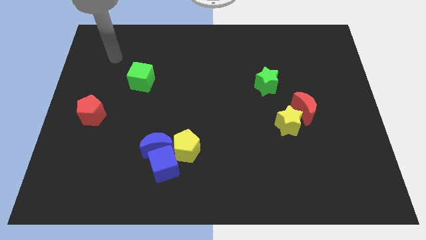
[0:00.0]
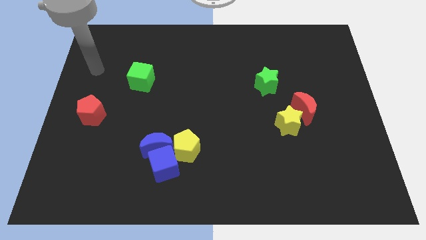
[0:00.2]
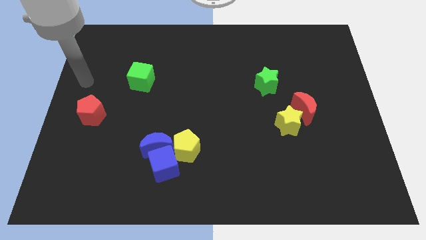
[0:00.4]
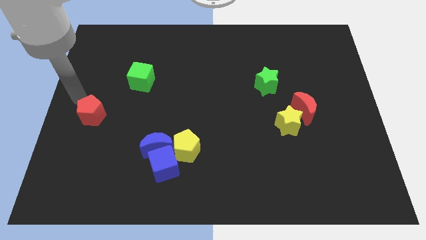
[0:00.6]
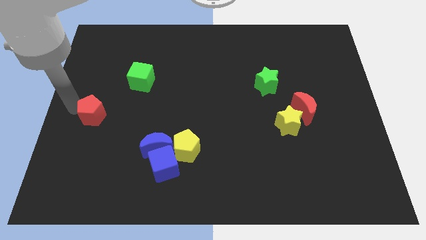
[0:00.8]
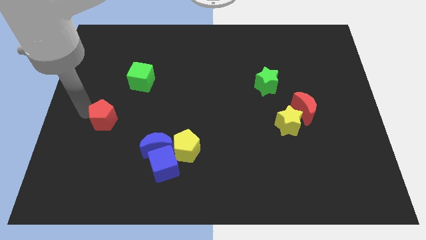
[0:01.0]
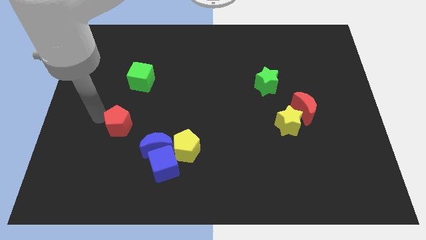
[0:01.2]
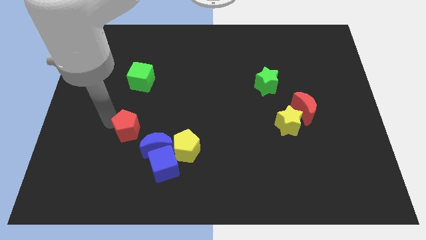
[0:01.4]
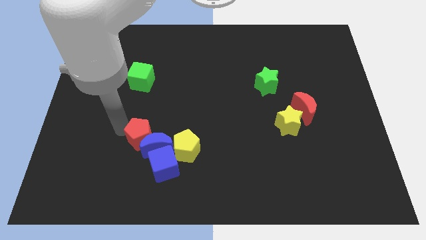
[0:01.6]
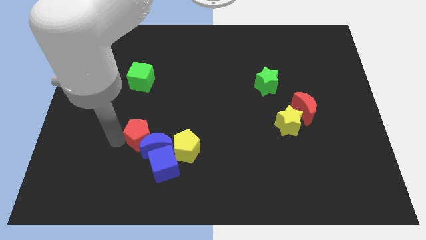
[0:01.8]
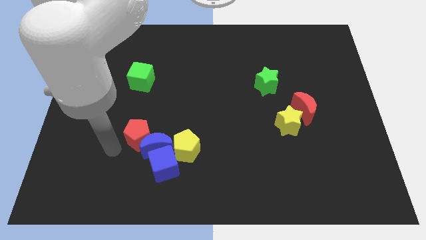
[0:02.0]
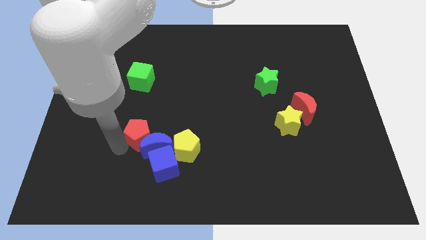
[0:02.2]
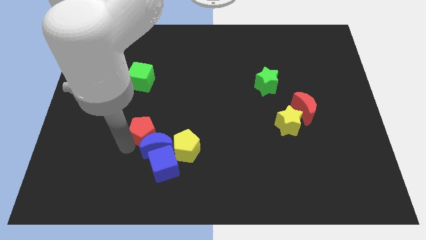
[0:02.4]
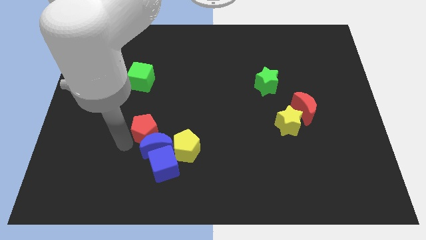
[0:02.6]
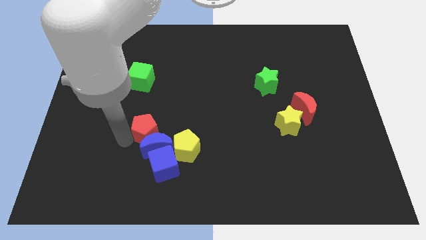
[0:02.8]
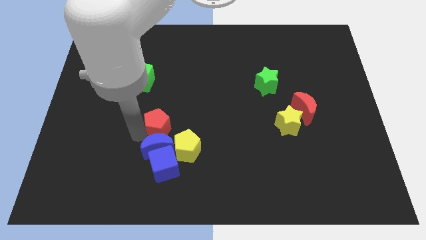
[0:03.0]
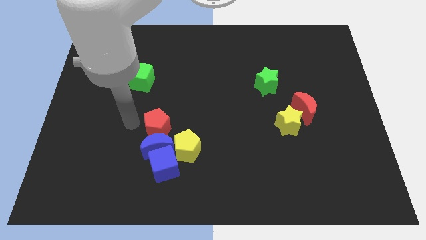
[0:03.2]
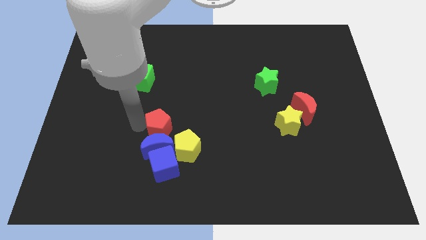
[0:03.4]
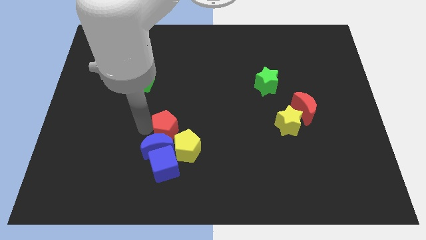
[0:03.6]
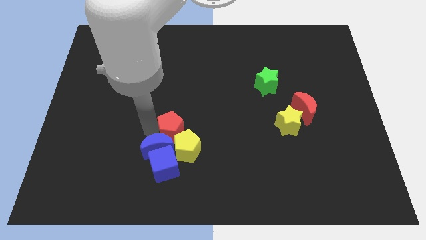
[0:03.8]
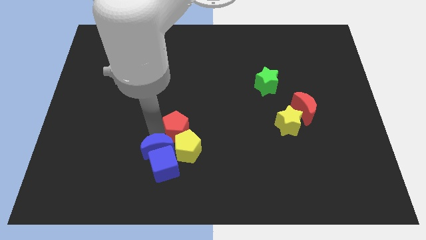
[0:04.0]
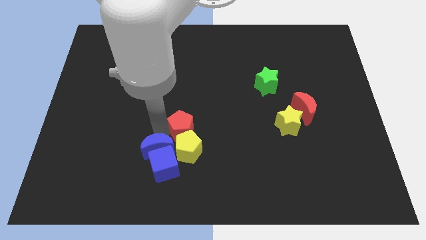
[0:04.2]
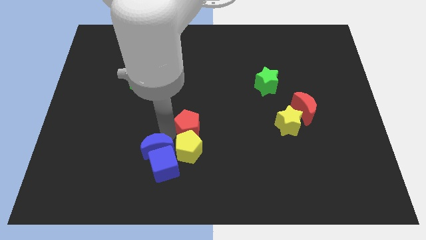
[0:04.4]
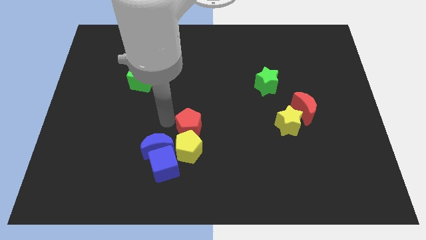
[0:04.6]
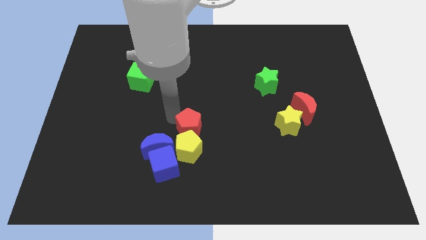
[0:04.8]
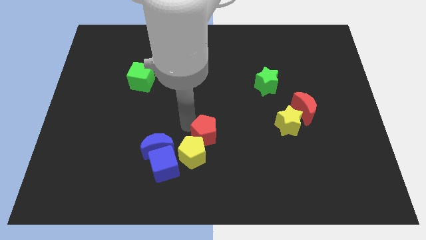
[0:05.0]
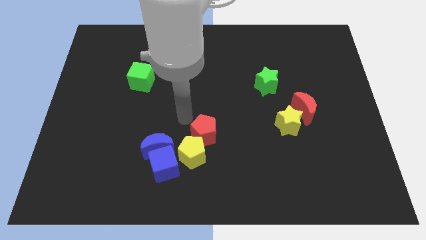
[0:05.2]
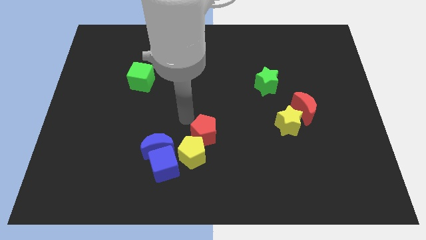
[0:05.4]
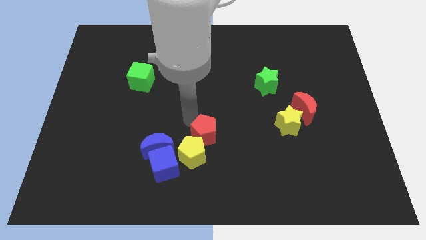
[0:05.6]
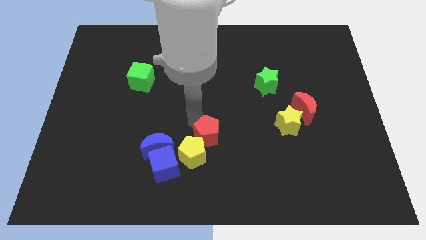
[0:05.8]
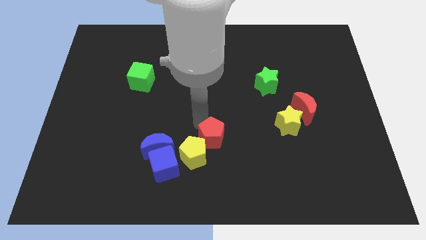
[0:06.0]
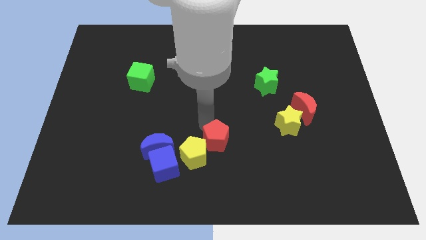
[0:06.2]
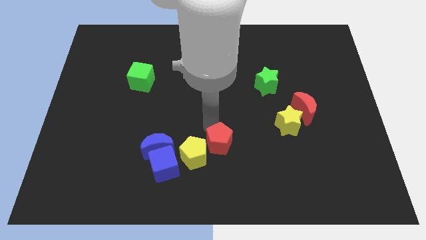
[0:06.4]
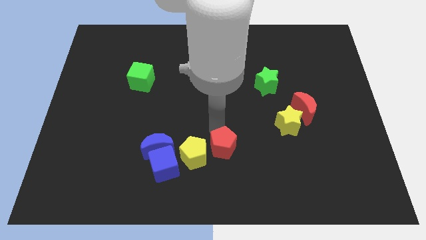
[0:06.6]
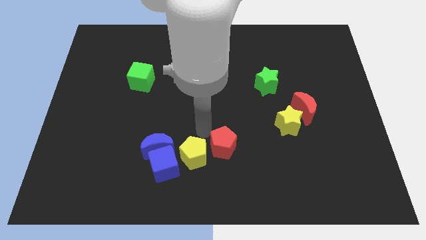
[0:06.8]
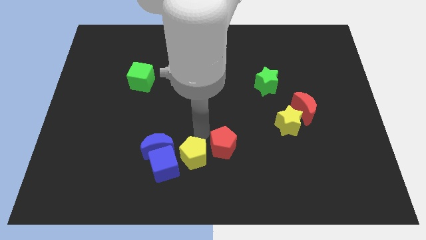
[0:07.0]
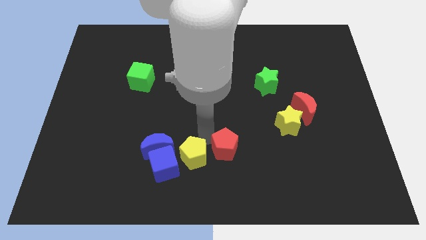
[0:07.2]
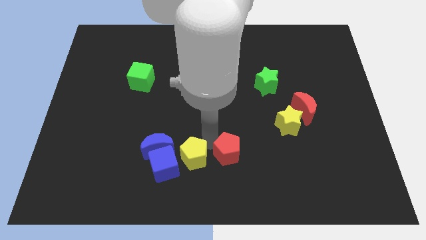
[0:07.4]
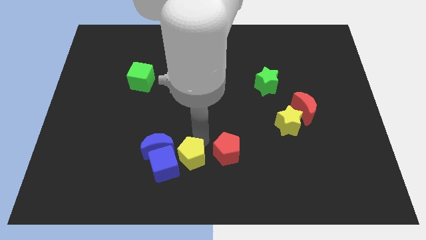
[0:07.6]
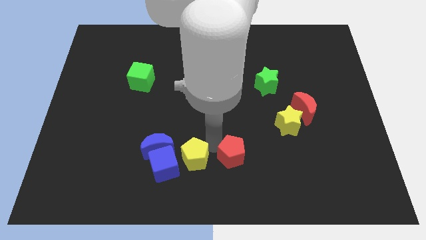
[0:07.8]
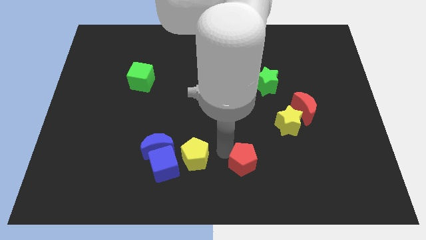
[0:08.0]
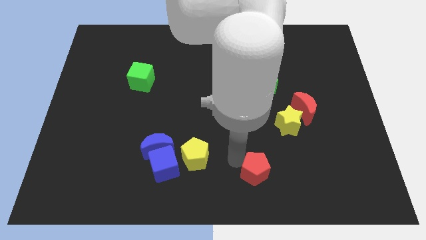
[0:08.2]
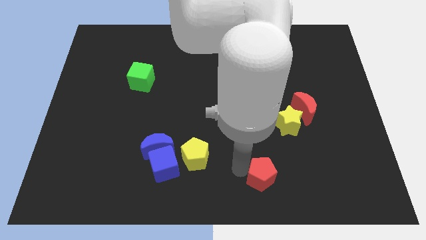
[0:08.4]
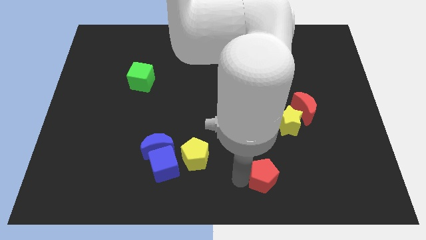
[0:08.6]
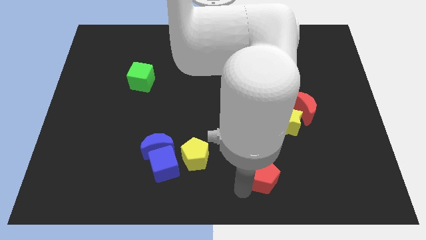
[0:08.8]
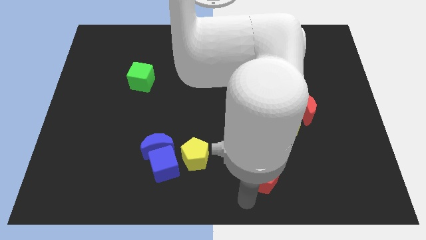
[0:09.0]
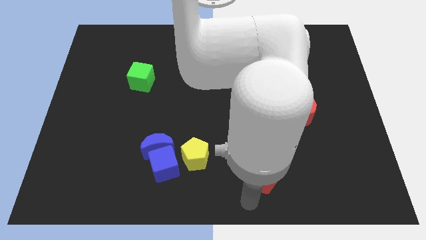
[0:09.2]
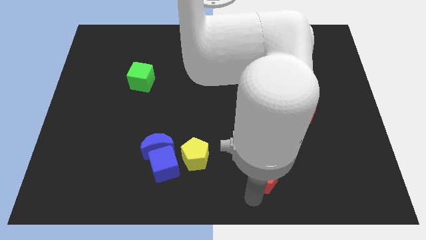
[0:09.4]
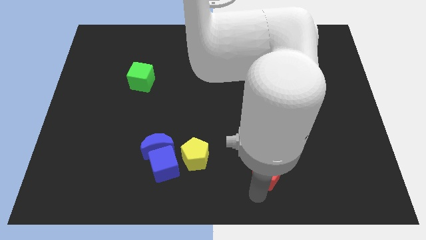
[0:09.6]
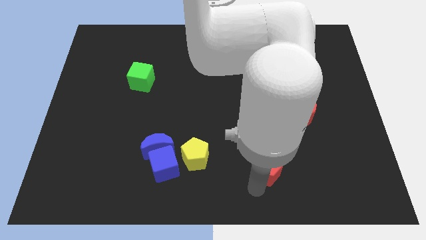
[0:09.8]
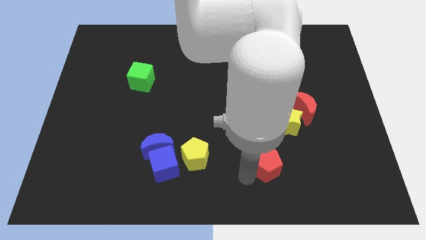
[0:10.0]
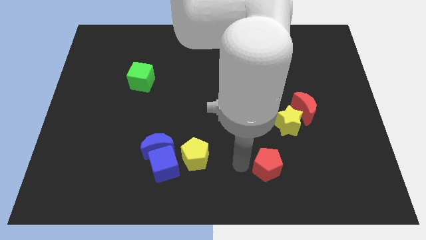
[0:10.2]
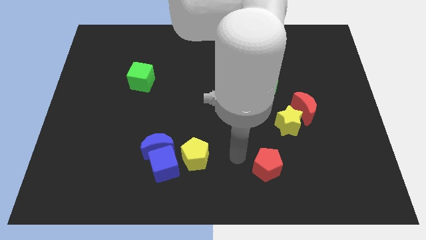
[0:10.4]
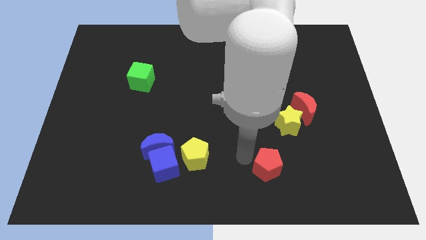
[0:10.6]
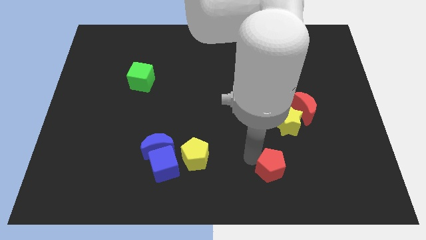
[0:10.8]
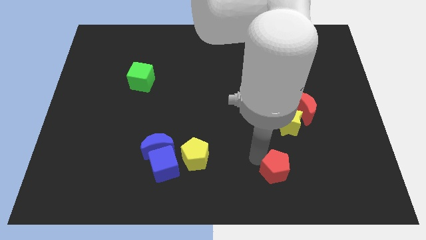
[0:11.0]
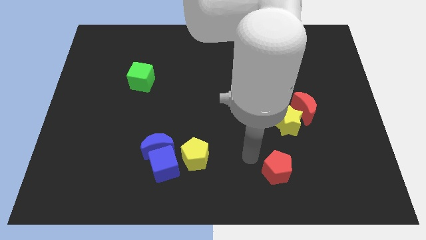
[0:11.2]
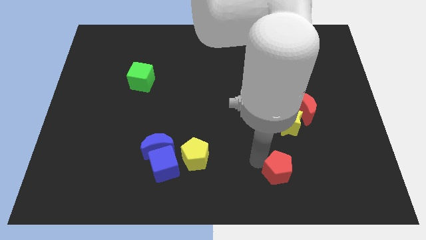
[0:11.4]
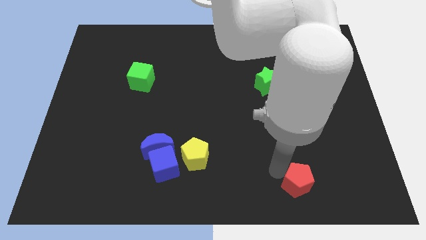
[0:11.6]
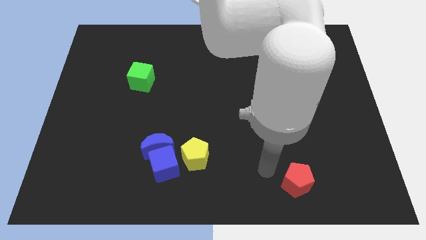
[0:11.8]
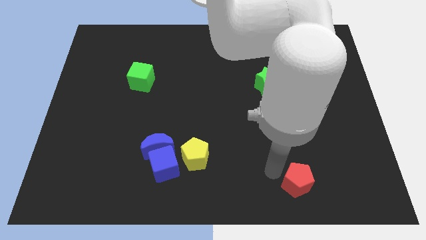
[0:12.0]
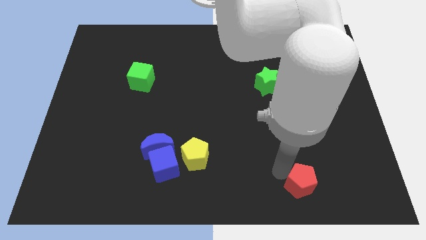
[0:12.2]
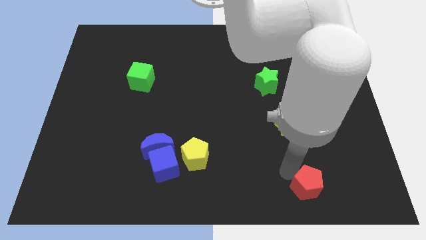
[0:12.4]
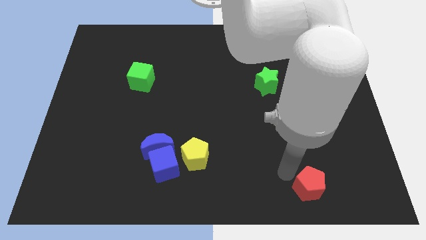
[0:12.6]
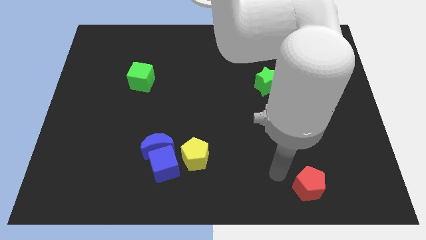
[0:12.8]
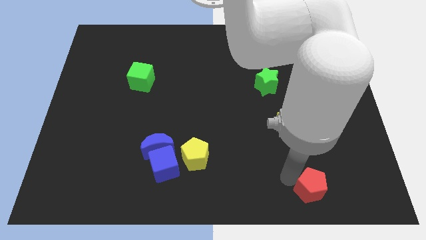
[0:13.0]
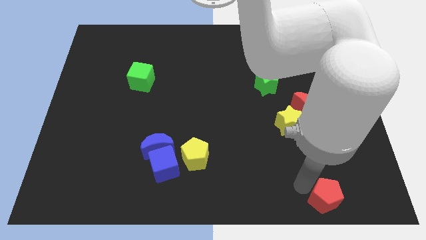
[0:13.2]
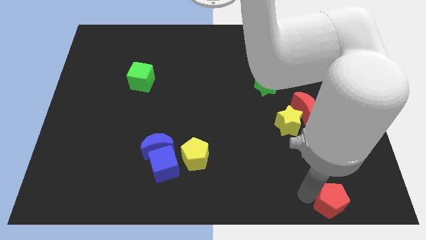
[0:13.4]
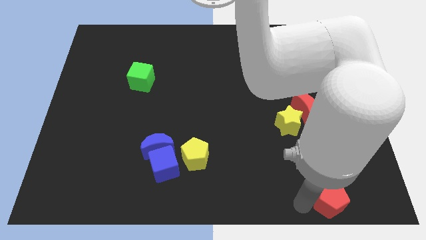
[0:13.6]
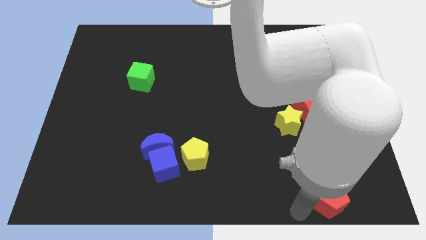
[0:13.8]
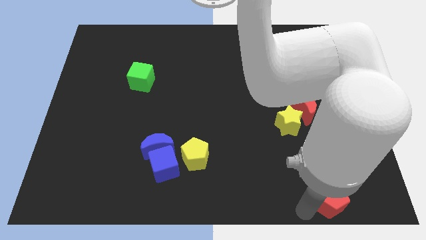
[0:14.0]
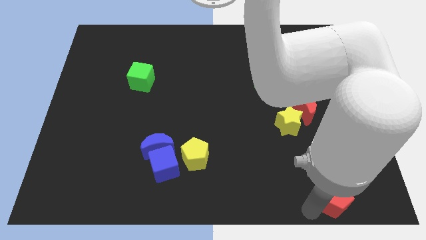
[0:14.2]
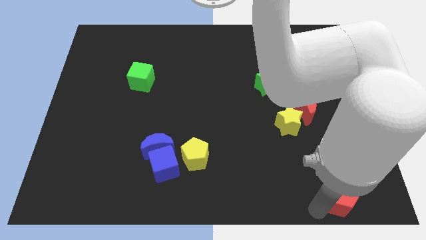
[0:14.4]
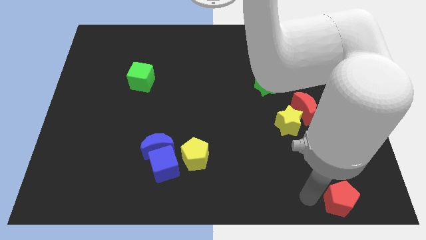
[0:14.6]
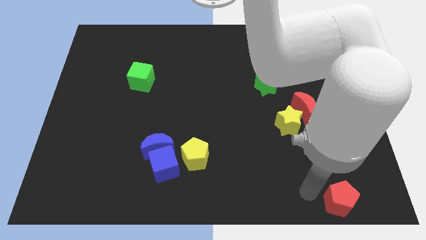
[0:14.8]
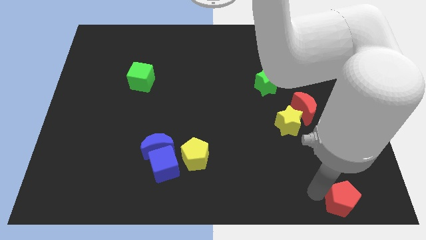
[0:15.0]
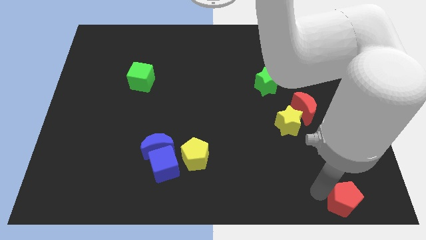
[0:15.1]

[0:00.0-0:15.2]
slide the red pentagon to the bottom right

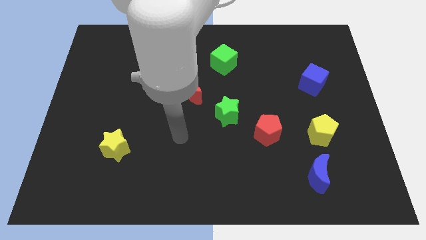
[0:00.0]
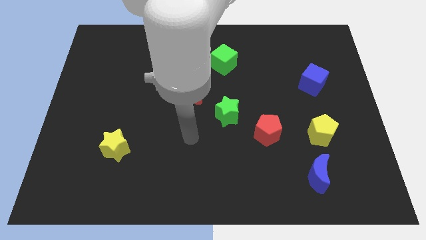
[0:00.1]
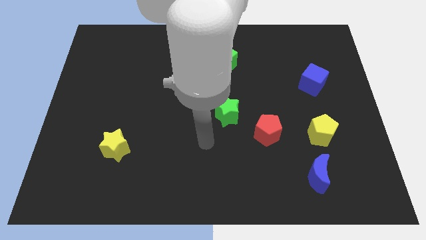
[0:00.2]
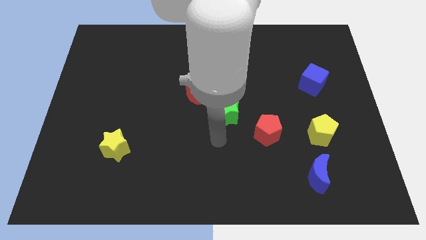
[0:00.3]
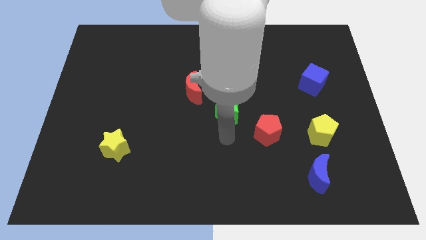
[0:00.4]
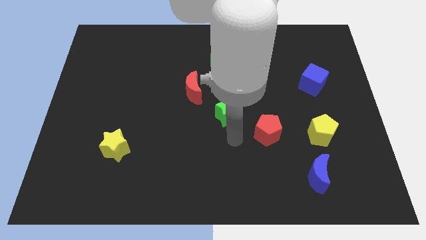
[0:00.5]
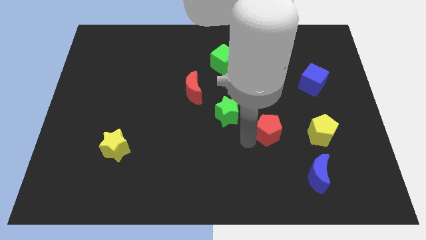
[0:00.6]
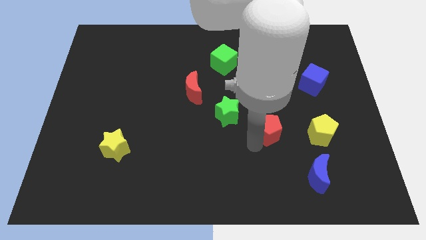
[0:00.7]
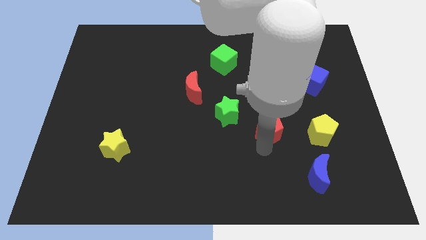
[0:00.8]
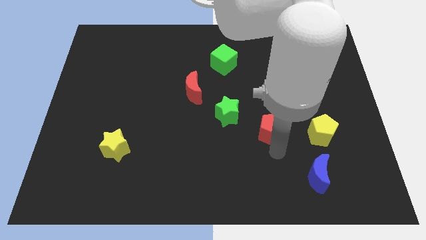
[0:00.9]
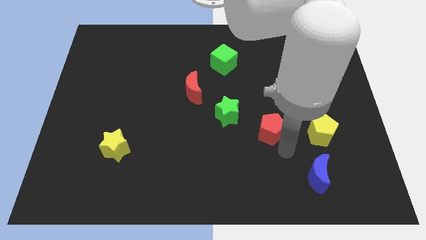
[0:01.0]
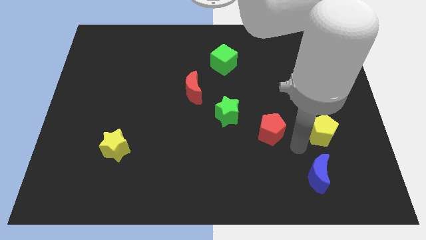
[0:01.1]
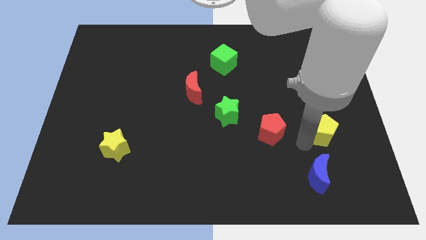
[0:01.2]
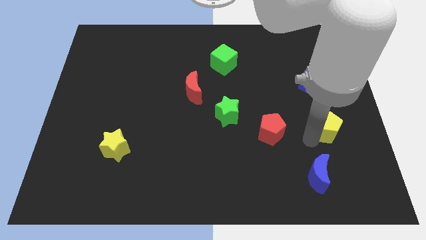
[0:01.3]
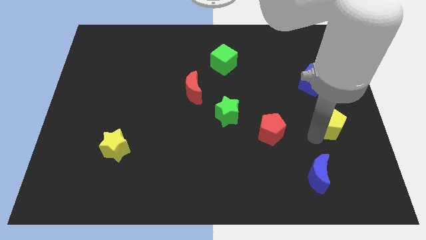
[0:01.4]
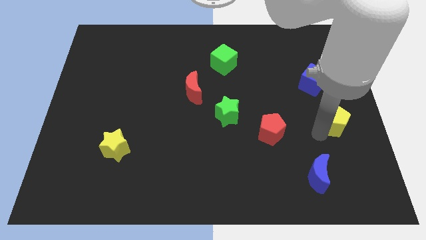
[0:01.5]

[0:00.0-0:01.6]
push the yellow pentagon to the center right
